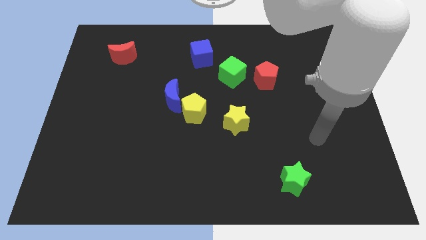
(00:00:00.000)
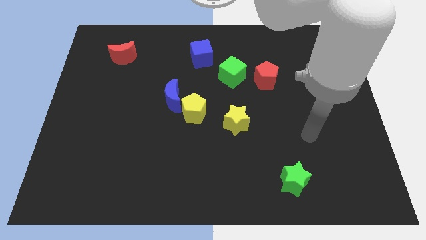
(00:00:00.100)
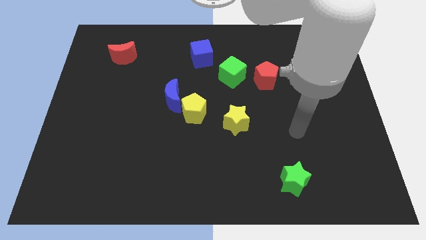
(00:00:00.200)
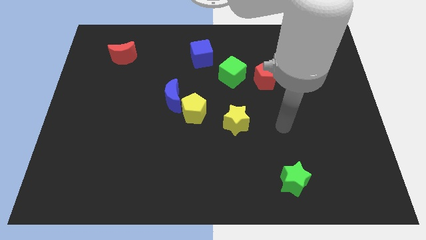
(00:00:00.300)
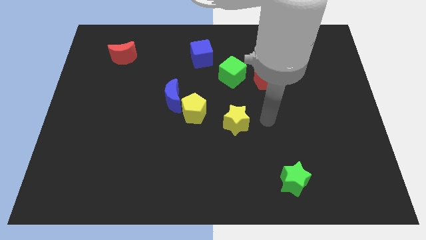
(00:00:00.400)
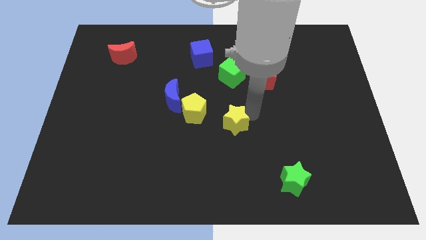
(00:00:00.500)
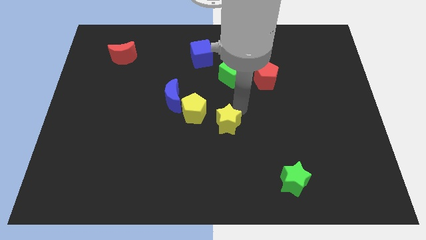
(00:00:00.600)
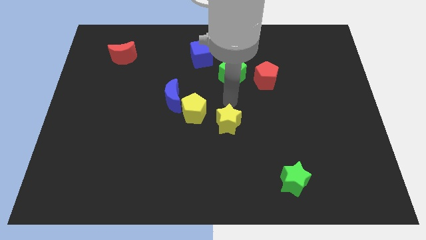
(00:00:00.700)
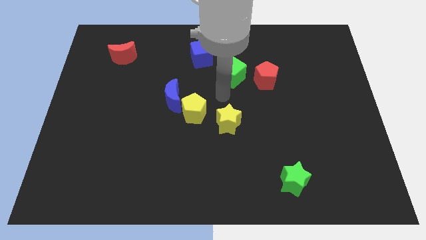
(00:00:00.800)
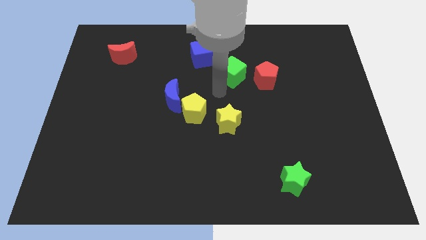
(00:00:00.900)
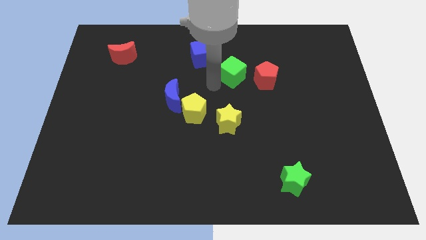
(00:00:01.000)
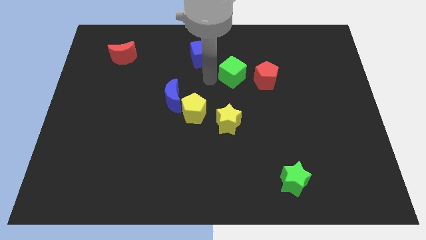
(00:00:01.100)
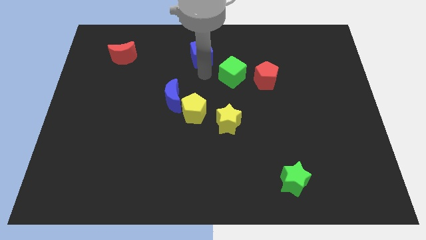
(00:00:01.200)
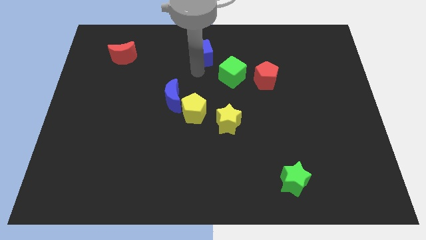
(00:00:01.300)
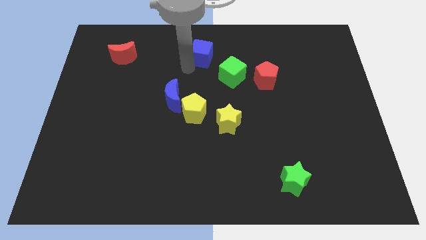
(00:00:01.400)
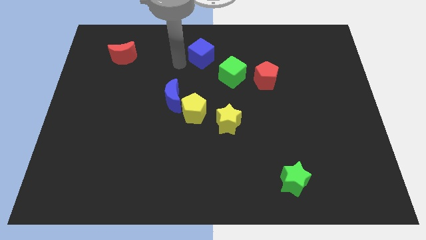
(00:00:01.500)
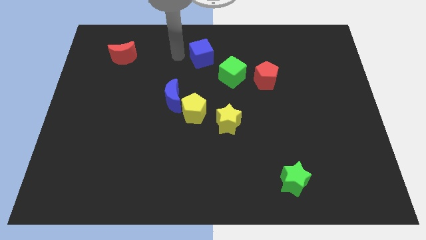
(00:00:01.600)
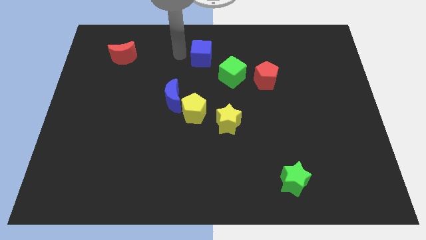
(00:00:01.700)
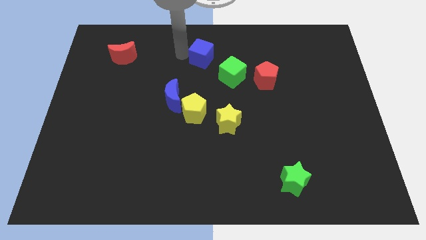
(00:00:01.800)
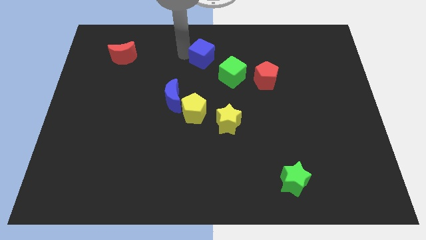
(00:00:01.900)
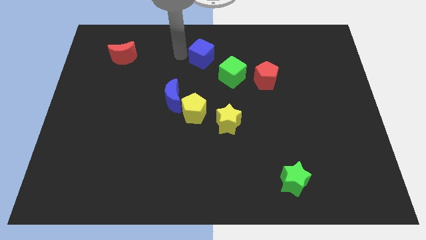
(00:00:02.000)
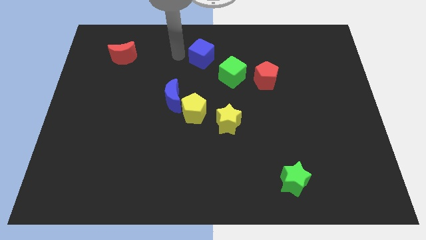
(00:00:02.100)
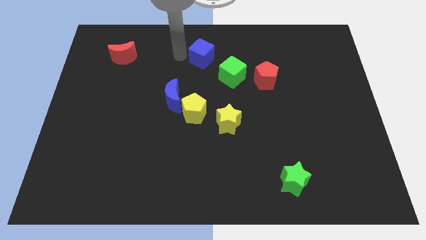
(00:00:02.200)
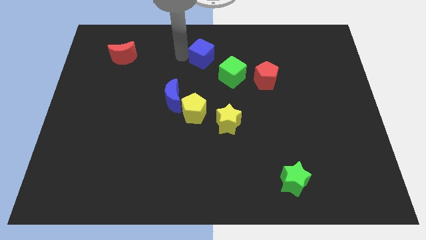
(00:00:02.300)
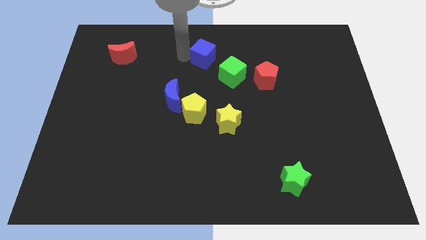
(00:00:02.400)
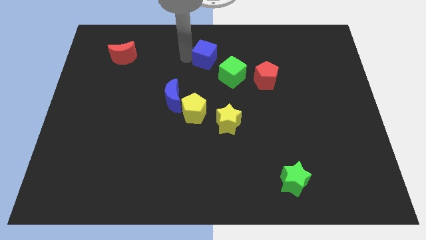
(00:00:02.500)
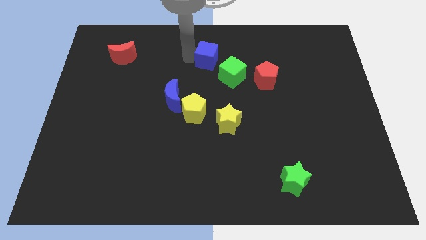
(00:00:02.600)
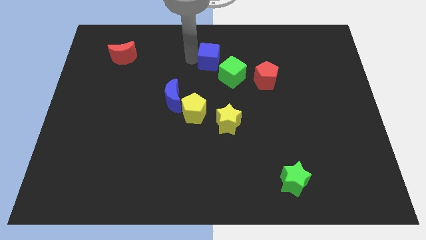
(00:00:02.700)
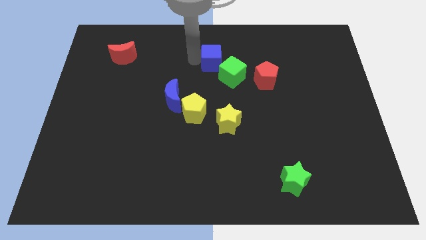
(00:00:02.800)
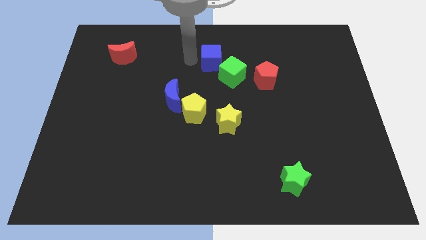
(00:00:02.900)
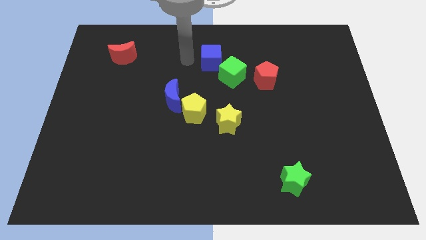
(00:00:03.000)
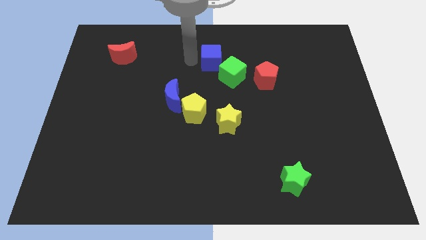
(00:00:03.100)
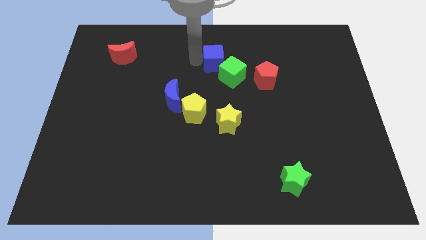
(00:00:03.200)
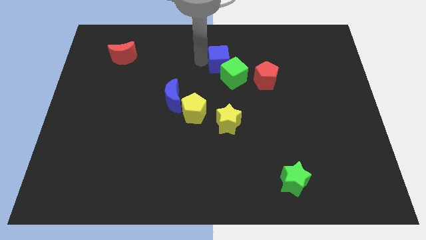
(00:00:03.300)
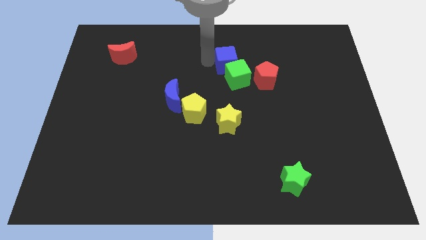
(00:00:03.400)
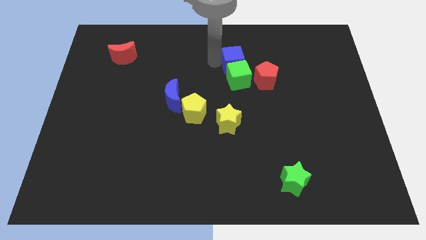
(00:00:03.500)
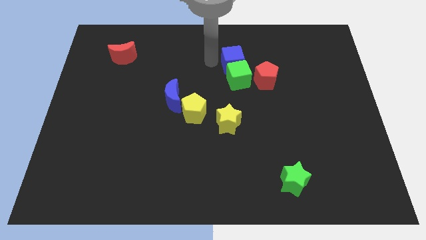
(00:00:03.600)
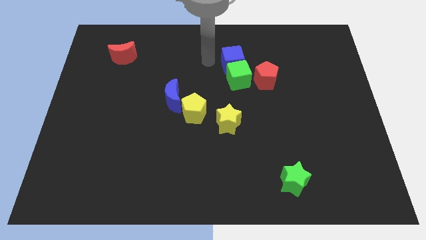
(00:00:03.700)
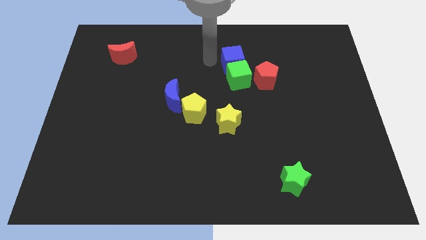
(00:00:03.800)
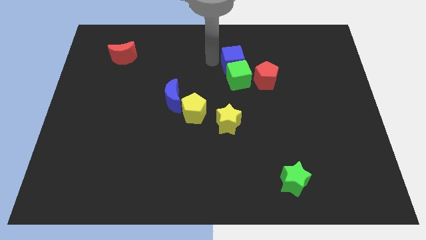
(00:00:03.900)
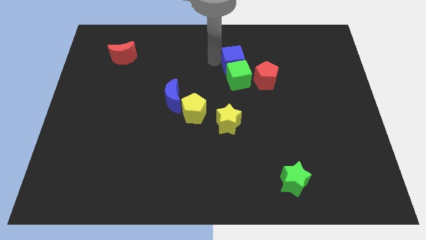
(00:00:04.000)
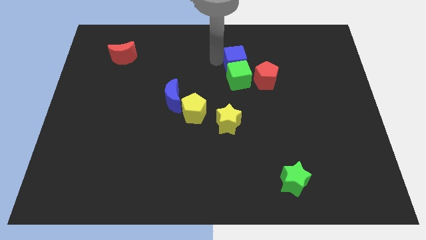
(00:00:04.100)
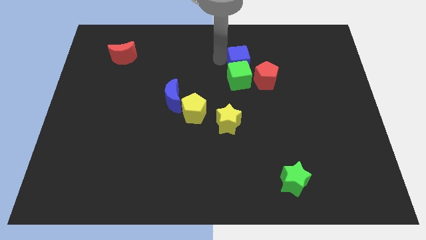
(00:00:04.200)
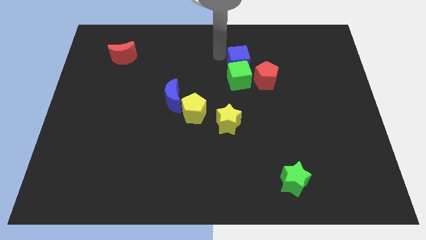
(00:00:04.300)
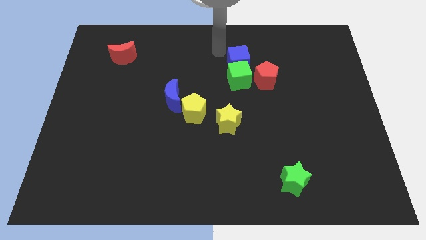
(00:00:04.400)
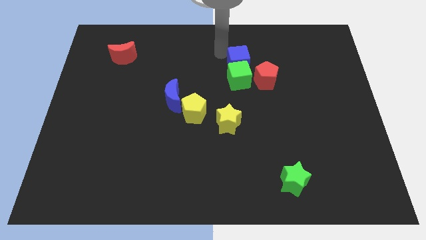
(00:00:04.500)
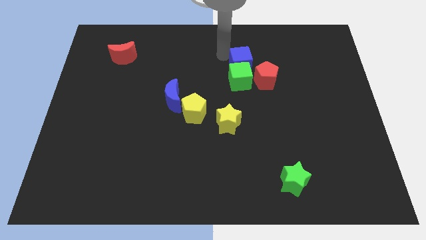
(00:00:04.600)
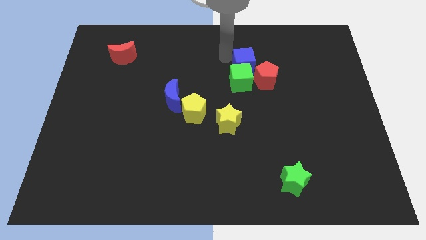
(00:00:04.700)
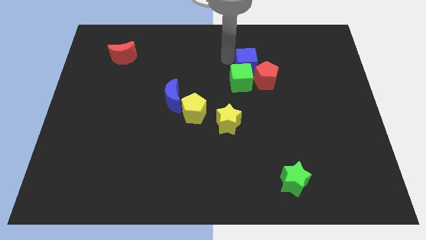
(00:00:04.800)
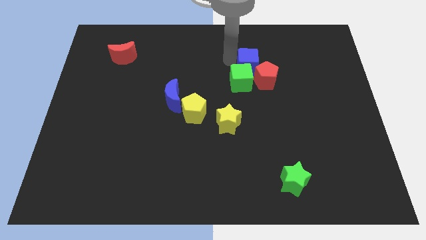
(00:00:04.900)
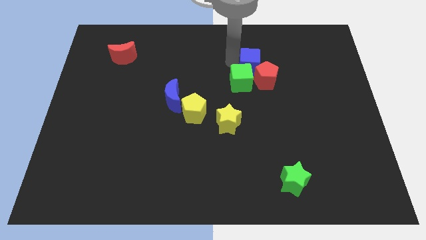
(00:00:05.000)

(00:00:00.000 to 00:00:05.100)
slide the blue cube to the red pentagon
